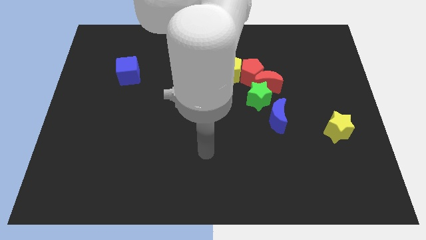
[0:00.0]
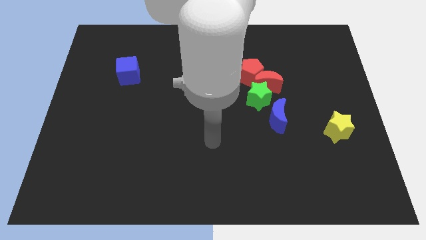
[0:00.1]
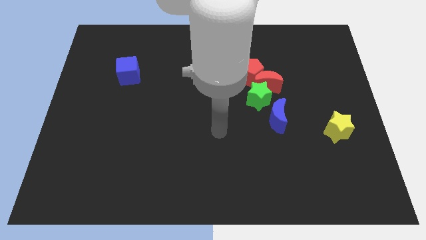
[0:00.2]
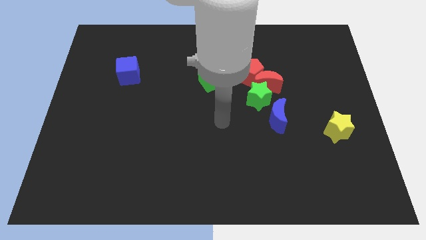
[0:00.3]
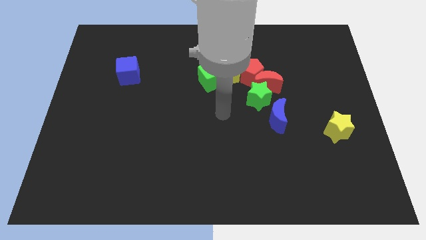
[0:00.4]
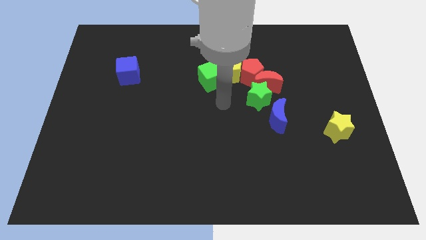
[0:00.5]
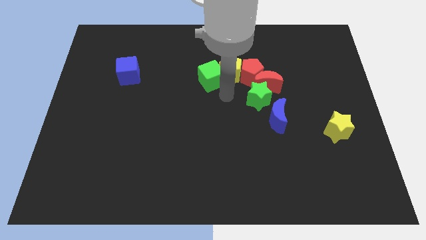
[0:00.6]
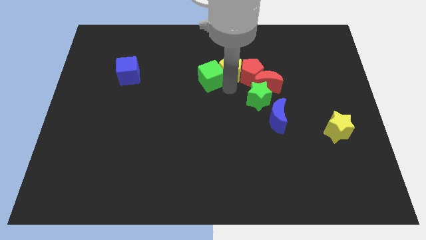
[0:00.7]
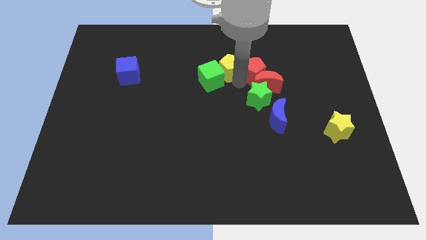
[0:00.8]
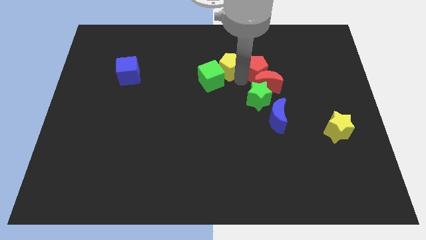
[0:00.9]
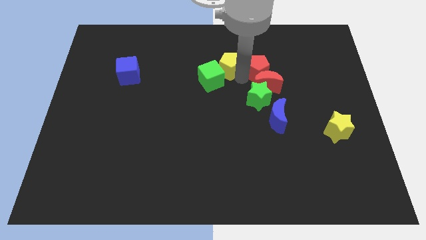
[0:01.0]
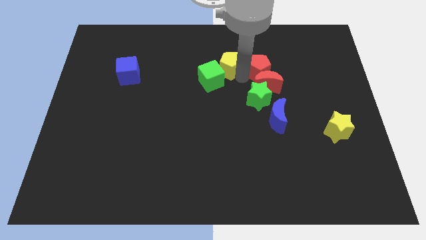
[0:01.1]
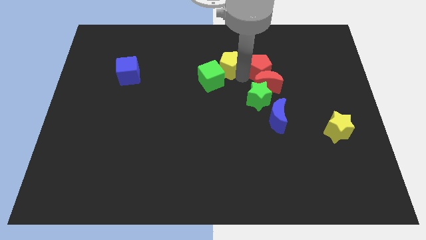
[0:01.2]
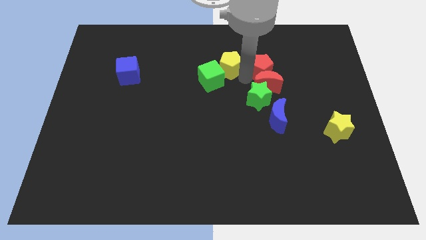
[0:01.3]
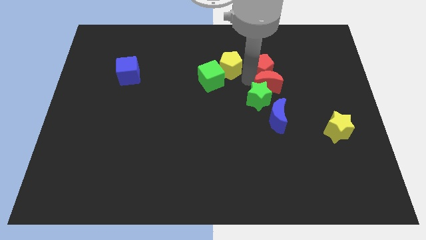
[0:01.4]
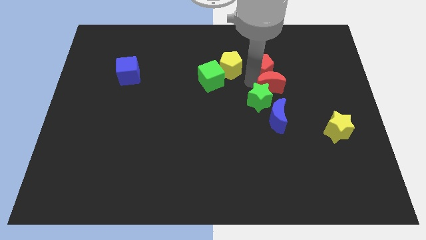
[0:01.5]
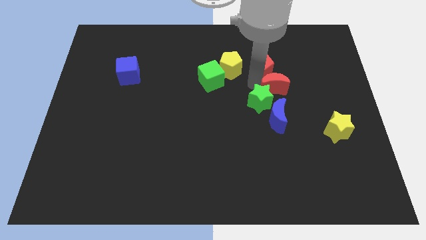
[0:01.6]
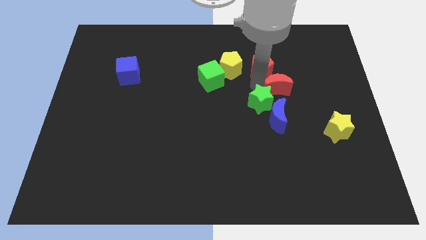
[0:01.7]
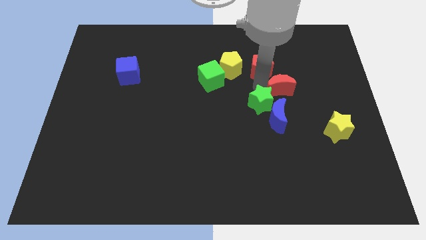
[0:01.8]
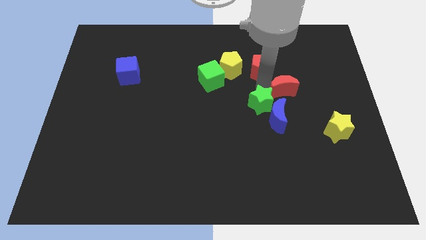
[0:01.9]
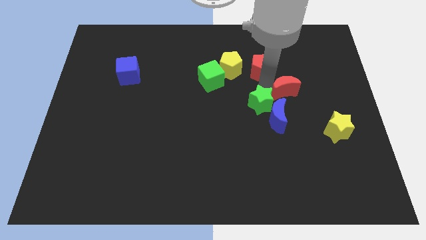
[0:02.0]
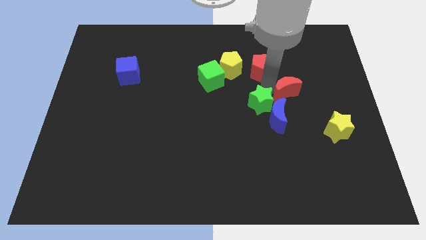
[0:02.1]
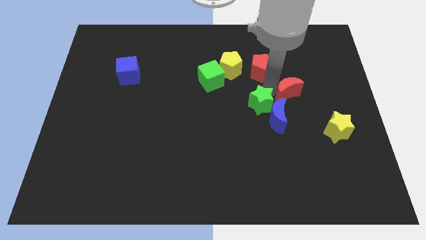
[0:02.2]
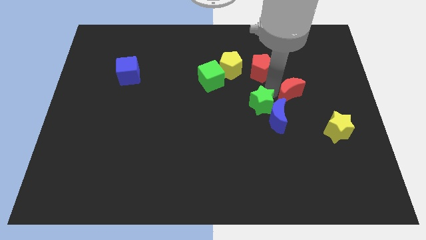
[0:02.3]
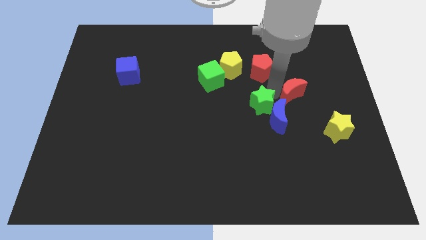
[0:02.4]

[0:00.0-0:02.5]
separate the red moon from the group of blocks

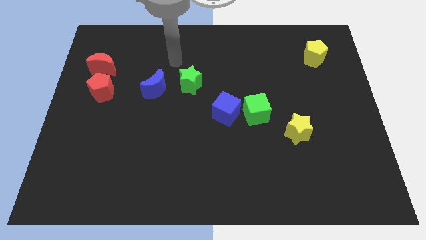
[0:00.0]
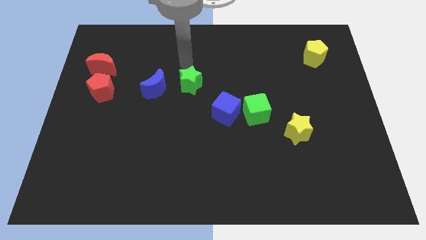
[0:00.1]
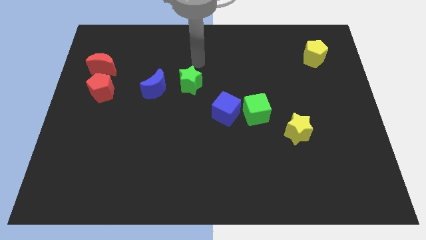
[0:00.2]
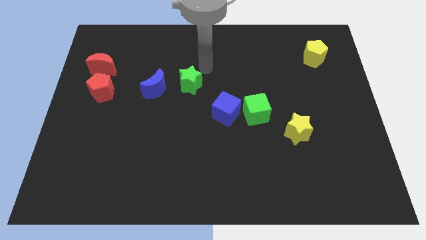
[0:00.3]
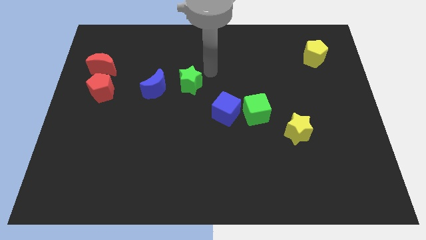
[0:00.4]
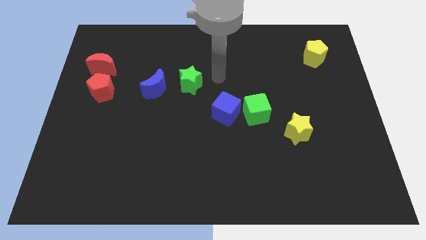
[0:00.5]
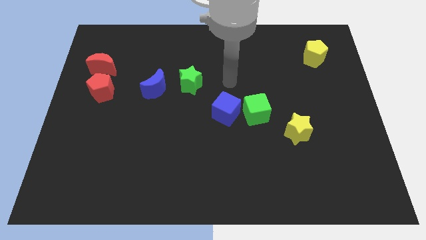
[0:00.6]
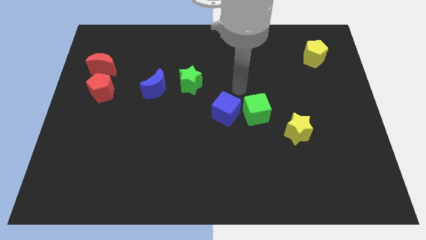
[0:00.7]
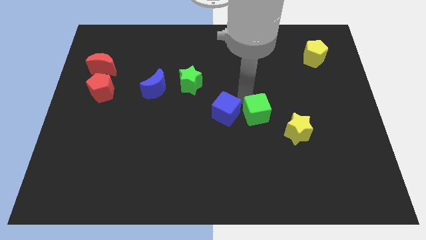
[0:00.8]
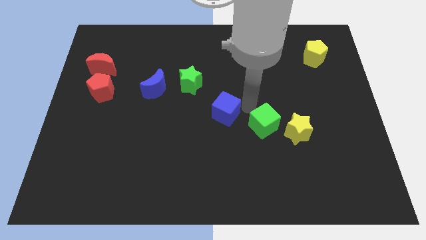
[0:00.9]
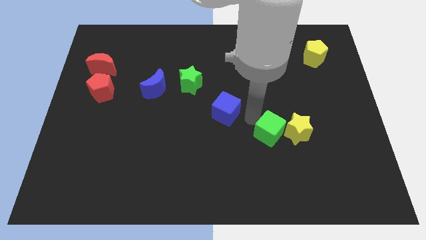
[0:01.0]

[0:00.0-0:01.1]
pull the blue cube apart from the green cube

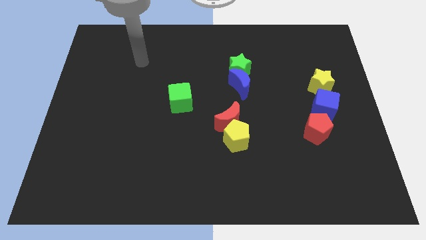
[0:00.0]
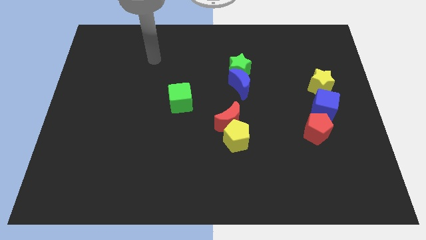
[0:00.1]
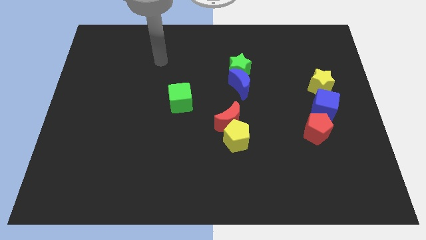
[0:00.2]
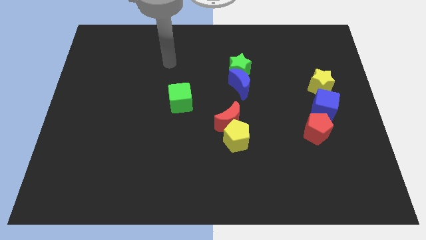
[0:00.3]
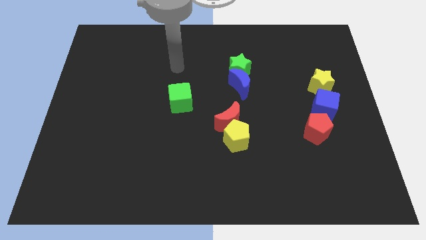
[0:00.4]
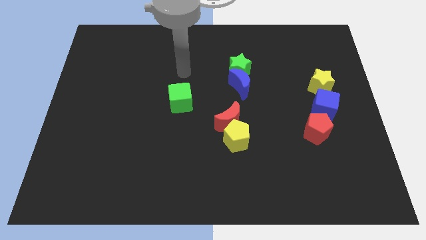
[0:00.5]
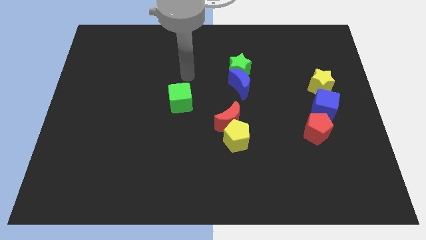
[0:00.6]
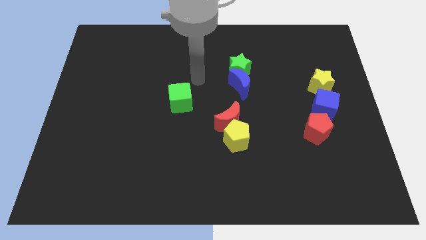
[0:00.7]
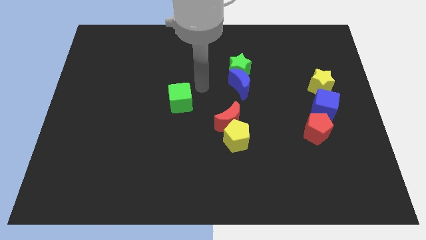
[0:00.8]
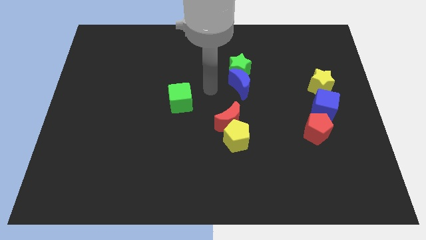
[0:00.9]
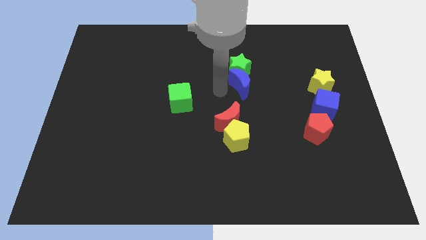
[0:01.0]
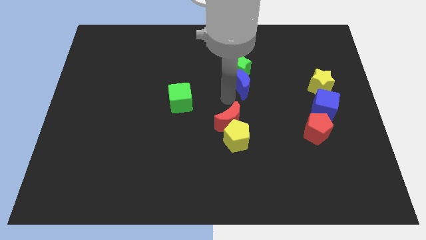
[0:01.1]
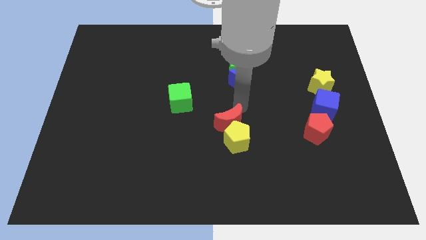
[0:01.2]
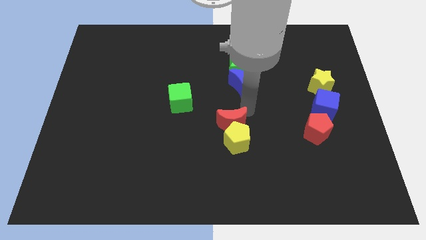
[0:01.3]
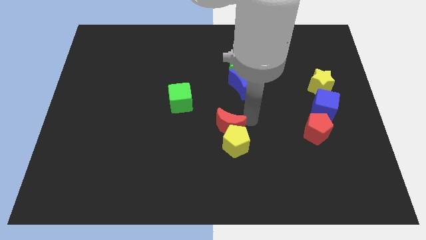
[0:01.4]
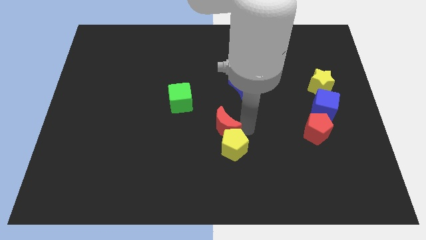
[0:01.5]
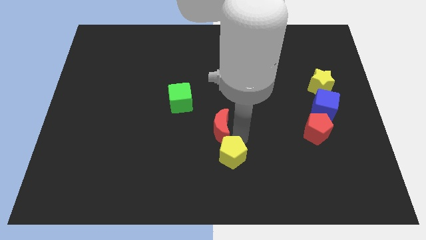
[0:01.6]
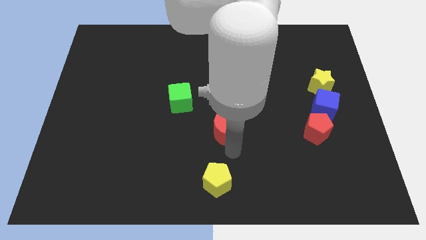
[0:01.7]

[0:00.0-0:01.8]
pull the red moon apart from the yellow pentagon

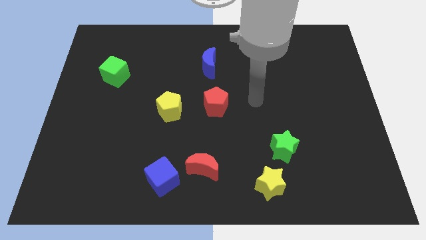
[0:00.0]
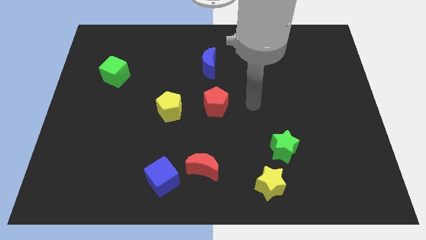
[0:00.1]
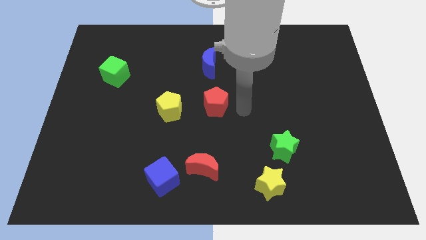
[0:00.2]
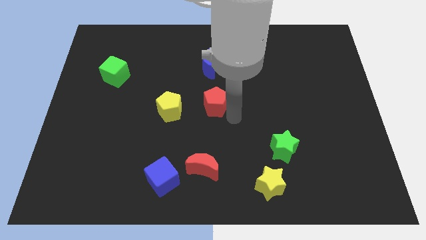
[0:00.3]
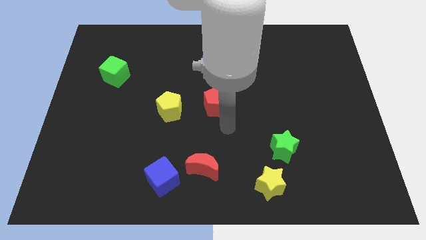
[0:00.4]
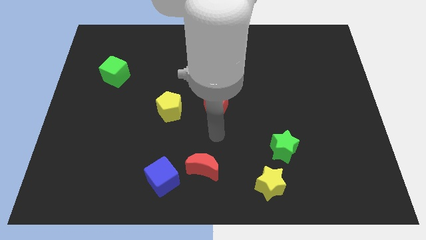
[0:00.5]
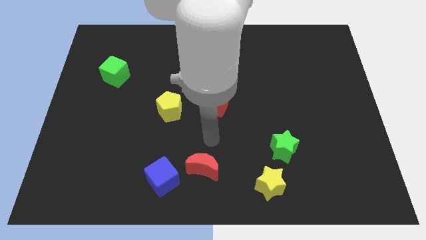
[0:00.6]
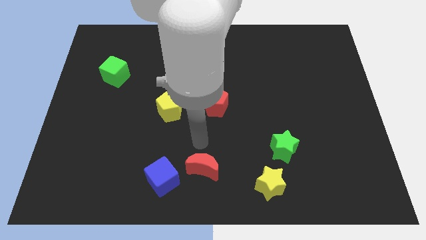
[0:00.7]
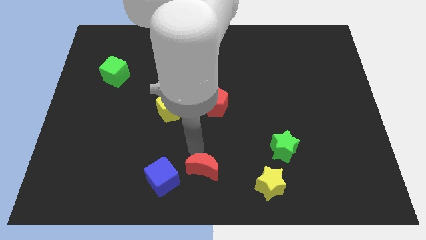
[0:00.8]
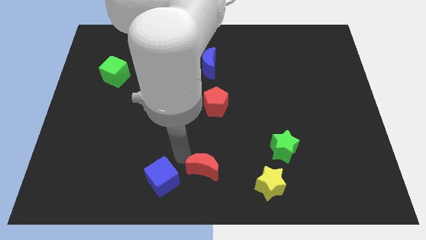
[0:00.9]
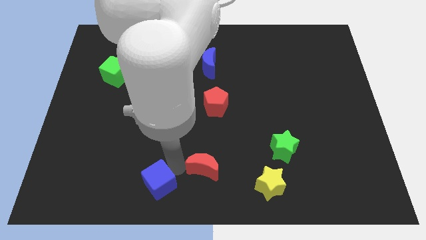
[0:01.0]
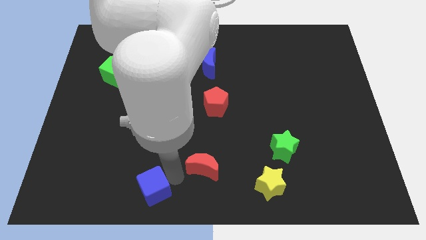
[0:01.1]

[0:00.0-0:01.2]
separate the red moon from the blue cube

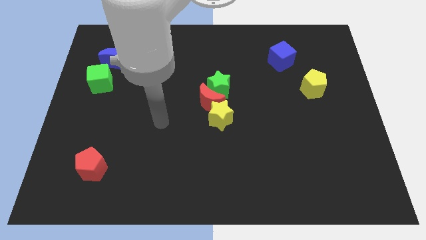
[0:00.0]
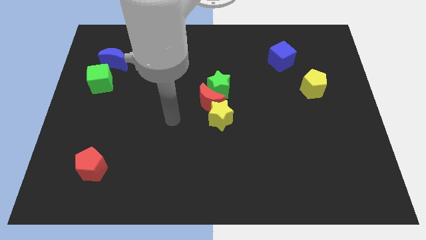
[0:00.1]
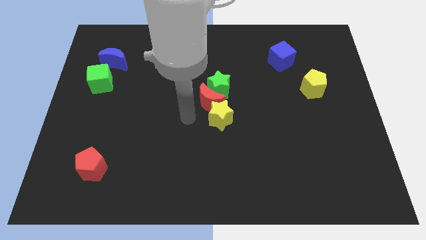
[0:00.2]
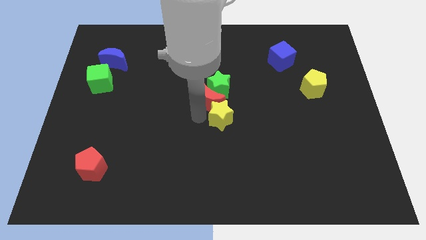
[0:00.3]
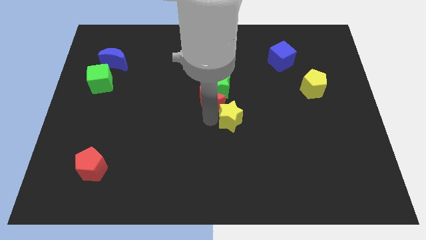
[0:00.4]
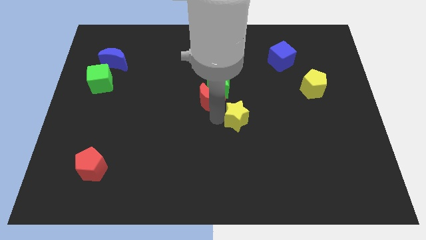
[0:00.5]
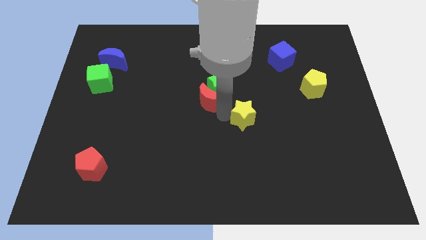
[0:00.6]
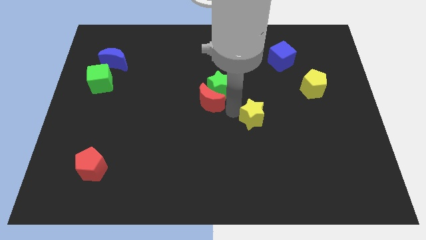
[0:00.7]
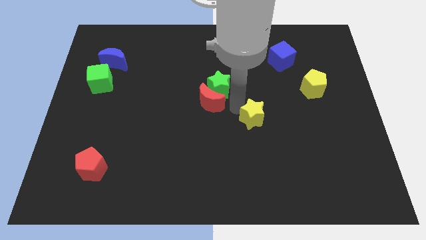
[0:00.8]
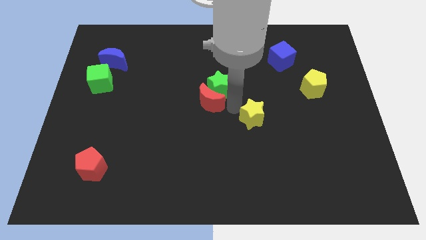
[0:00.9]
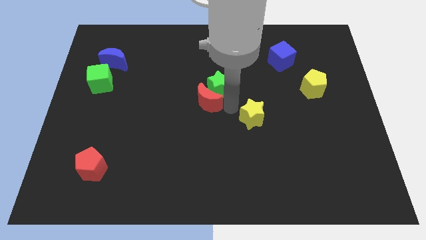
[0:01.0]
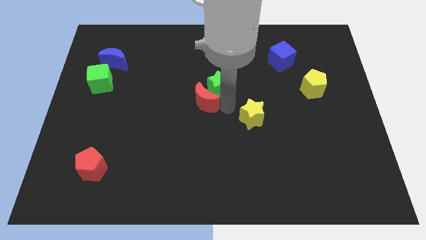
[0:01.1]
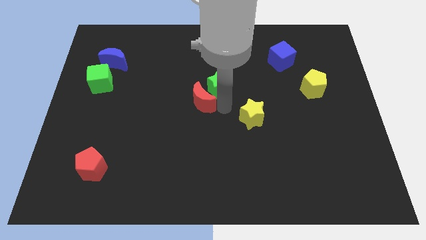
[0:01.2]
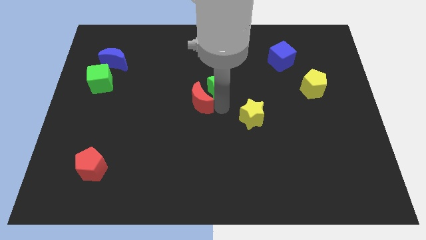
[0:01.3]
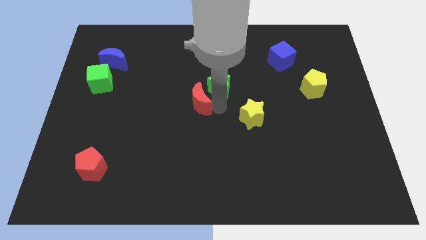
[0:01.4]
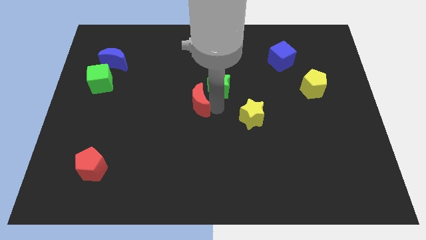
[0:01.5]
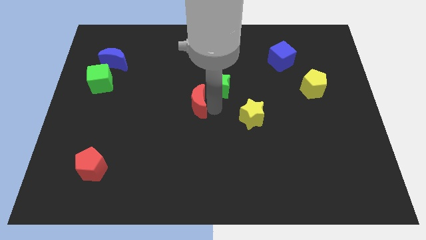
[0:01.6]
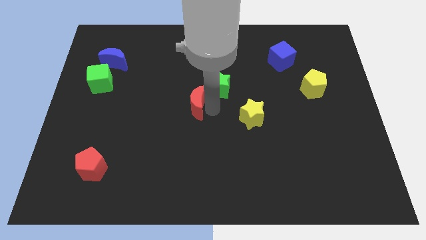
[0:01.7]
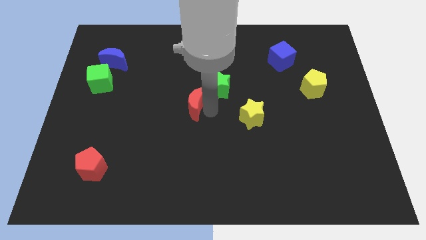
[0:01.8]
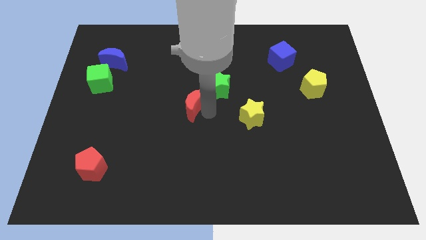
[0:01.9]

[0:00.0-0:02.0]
pull the red moon apart from the green star and yellow star

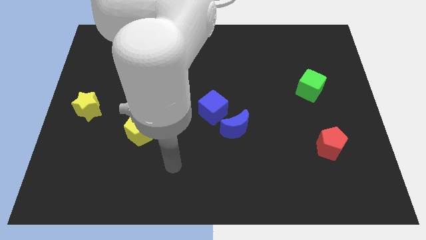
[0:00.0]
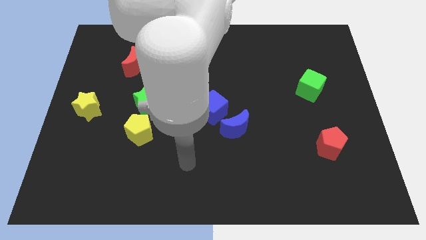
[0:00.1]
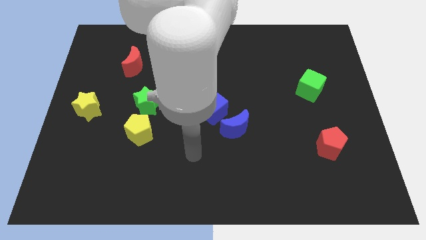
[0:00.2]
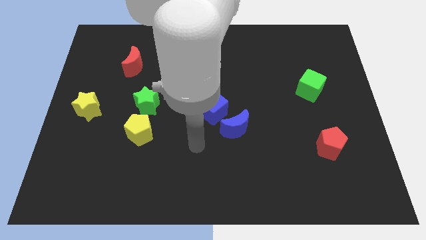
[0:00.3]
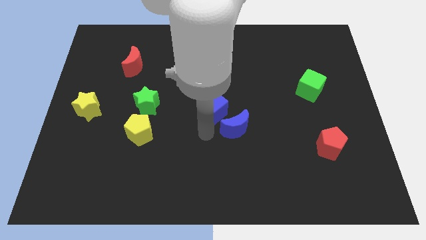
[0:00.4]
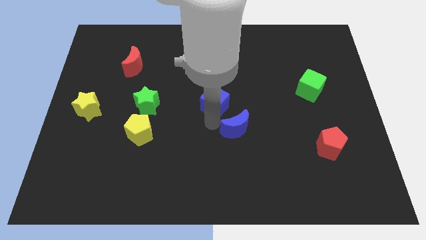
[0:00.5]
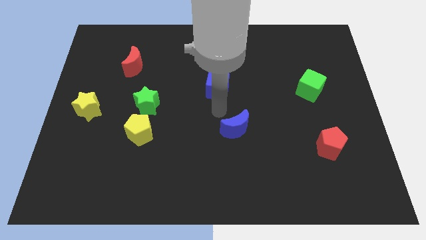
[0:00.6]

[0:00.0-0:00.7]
move the blue moon away from the blue cube
